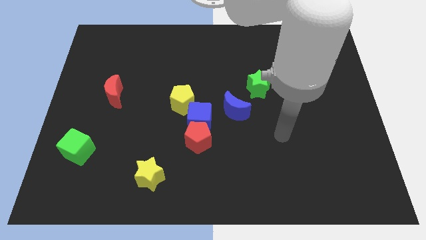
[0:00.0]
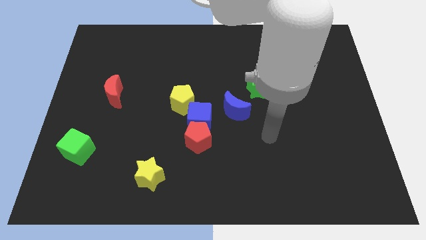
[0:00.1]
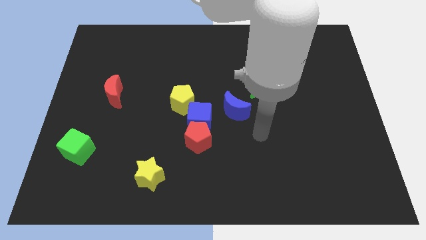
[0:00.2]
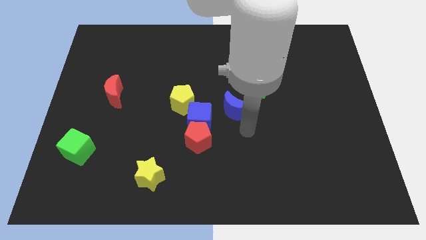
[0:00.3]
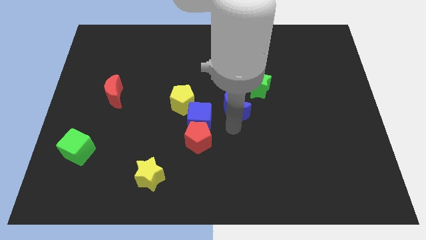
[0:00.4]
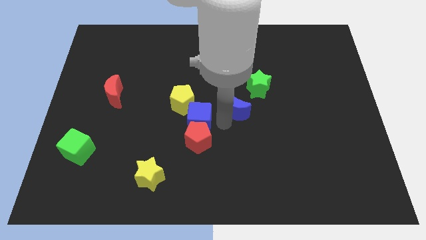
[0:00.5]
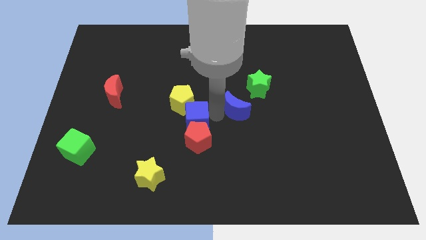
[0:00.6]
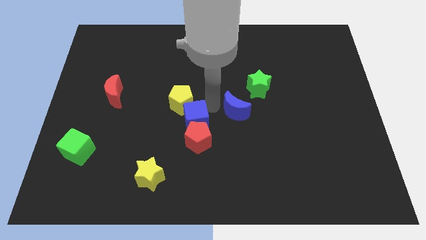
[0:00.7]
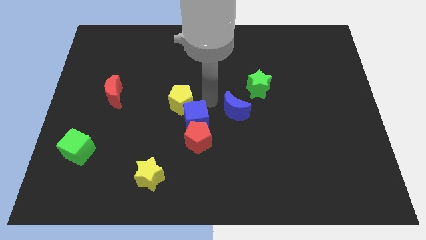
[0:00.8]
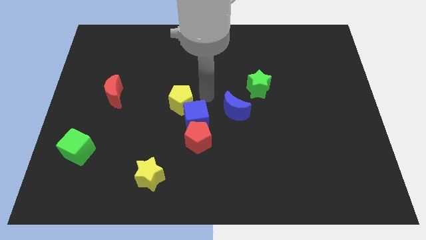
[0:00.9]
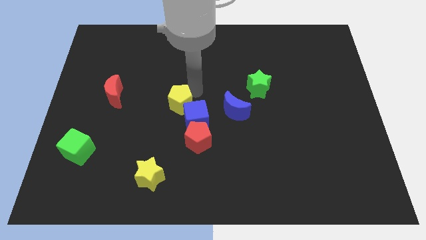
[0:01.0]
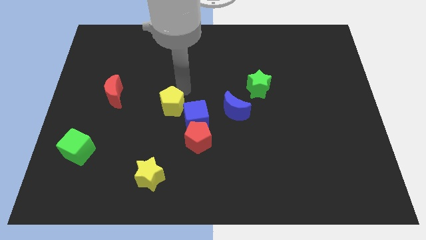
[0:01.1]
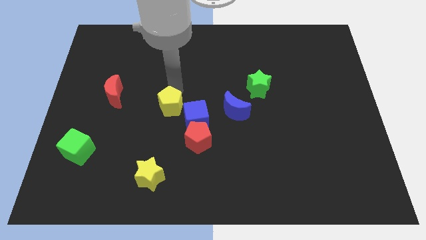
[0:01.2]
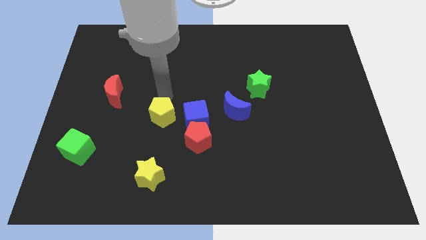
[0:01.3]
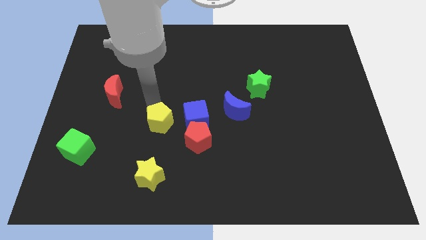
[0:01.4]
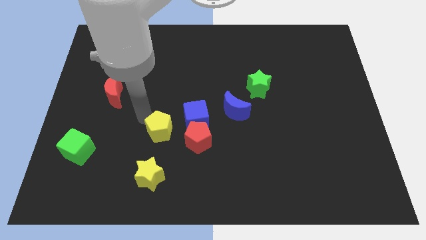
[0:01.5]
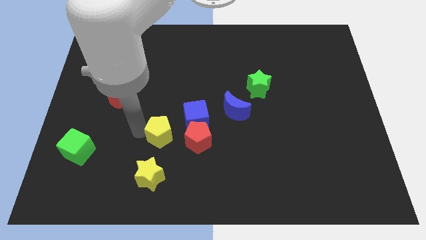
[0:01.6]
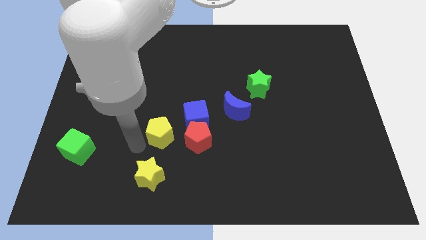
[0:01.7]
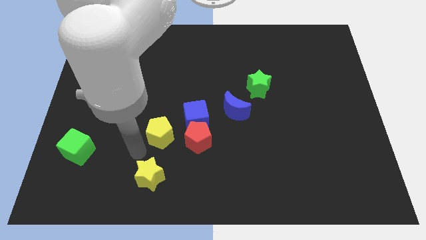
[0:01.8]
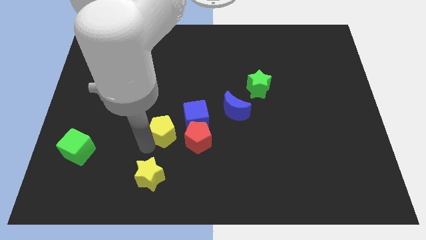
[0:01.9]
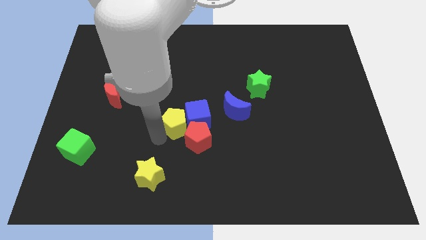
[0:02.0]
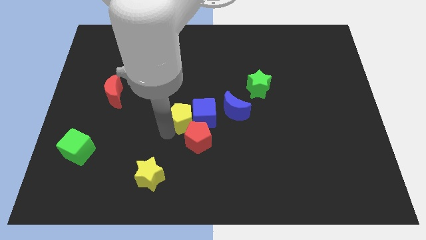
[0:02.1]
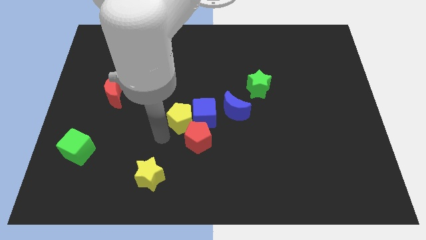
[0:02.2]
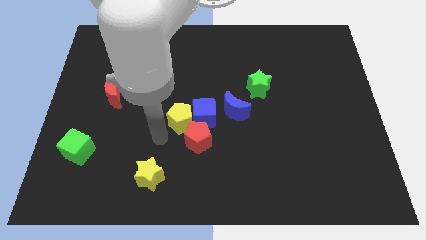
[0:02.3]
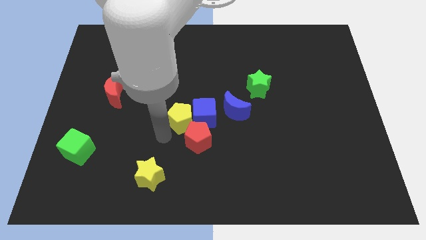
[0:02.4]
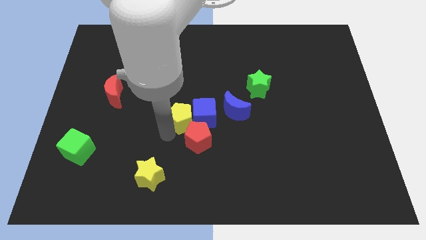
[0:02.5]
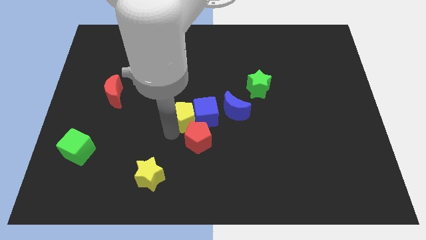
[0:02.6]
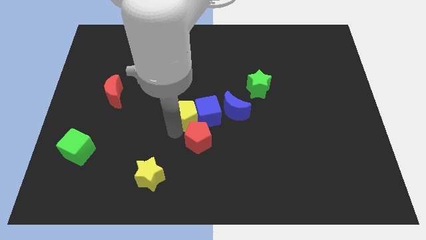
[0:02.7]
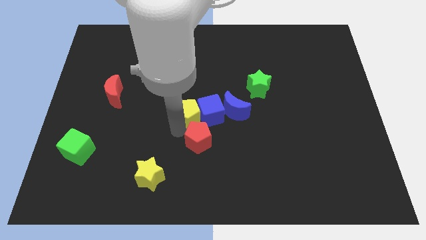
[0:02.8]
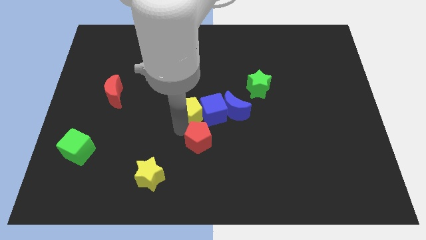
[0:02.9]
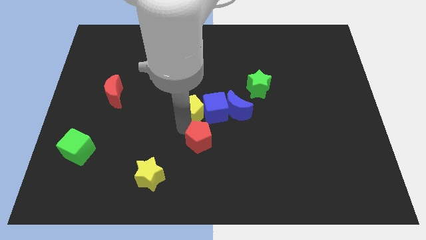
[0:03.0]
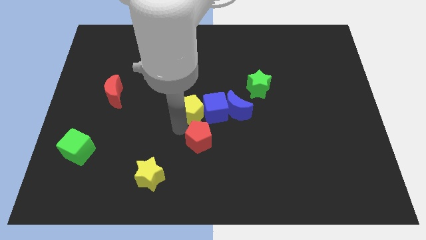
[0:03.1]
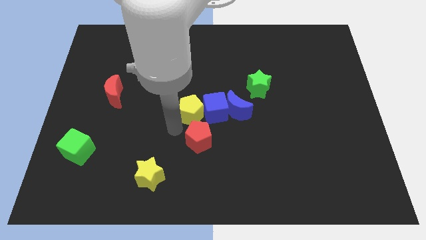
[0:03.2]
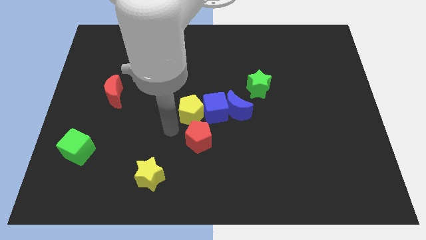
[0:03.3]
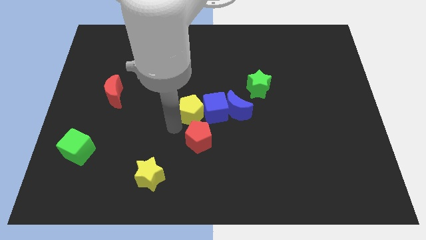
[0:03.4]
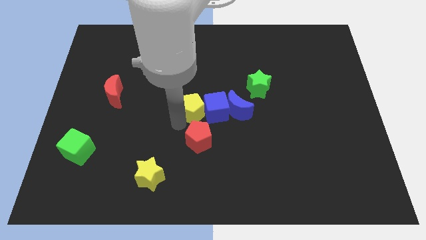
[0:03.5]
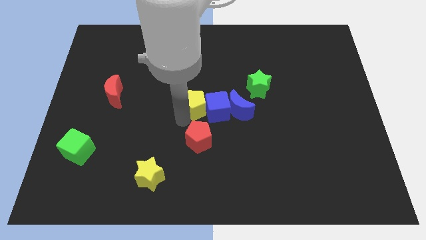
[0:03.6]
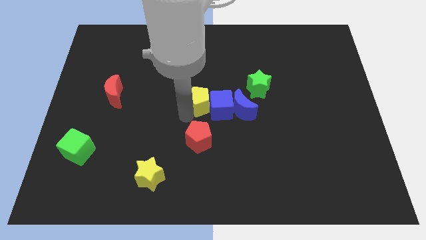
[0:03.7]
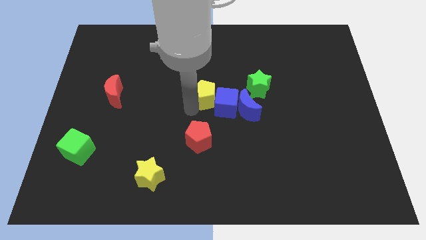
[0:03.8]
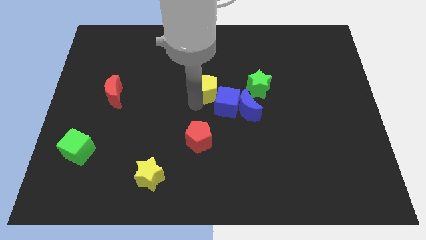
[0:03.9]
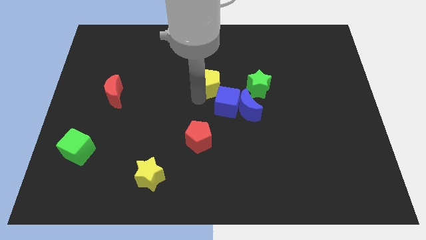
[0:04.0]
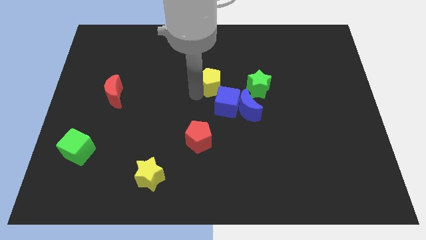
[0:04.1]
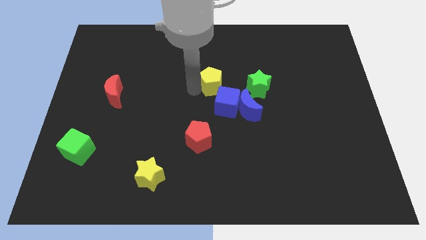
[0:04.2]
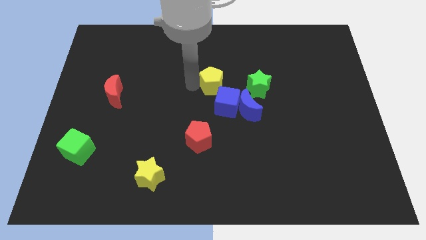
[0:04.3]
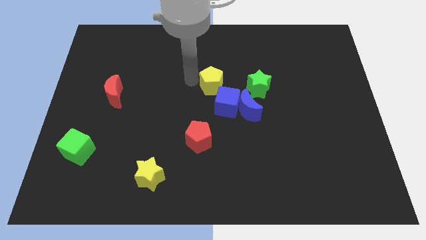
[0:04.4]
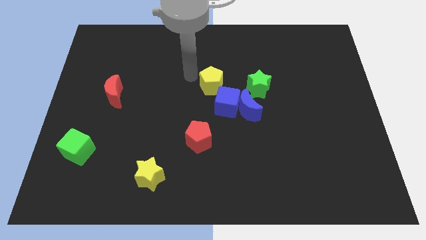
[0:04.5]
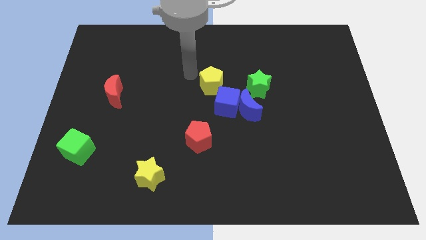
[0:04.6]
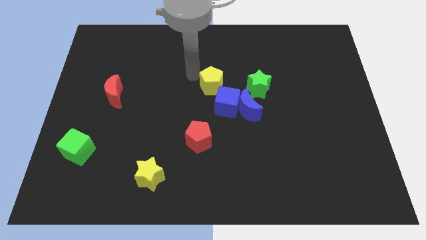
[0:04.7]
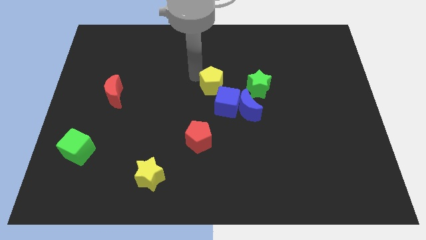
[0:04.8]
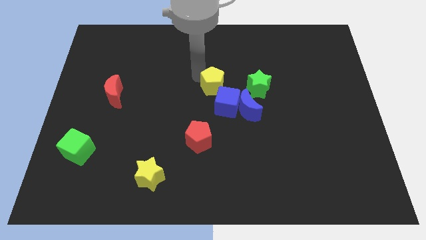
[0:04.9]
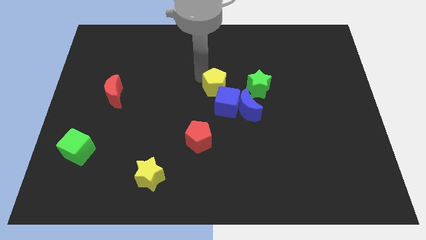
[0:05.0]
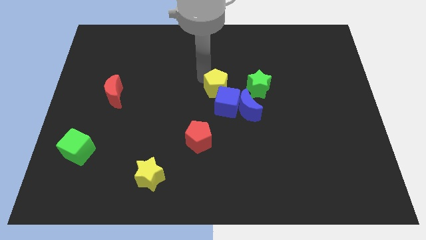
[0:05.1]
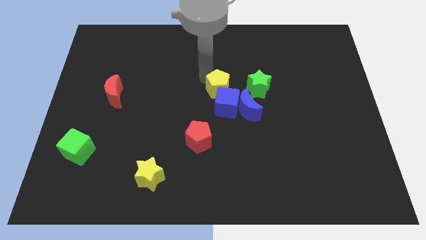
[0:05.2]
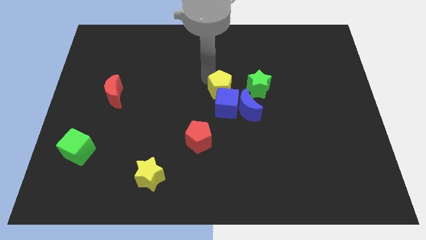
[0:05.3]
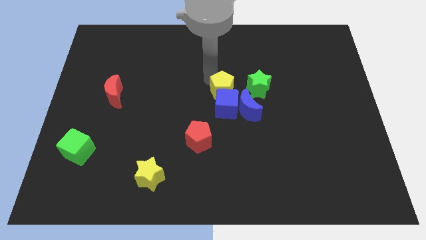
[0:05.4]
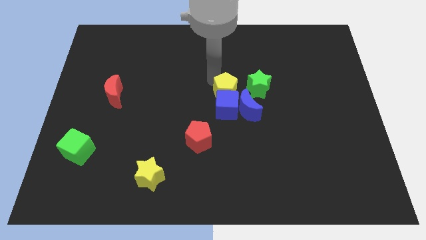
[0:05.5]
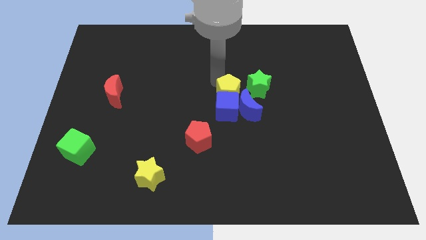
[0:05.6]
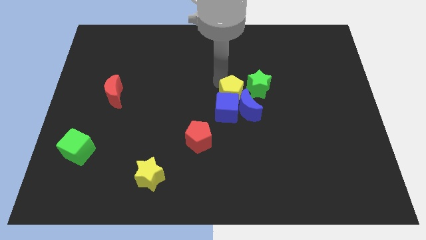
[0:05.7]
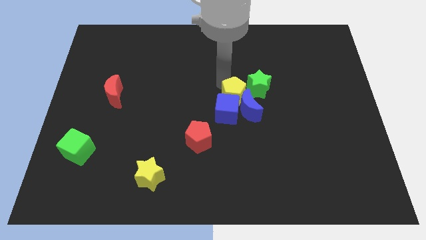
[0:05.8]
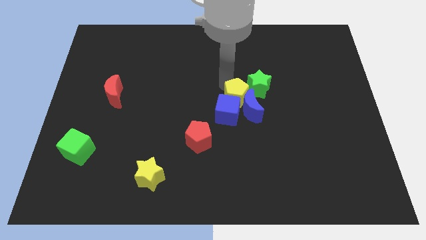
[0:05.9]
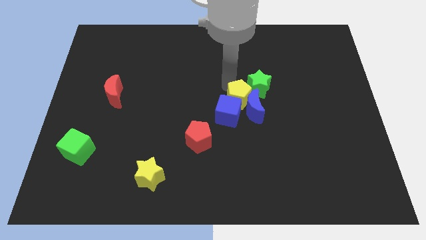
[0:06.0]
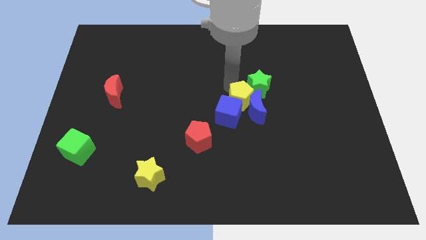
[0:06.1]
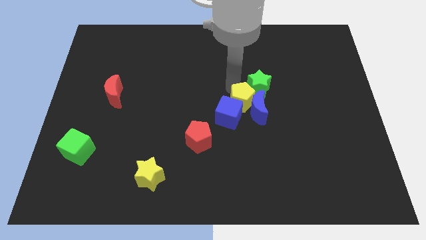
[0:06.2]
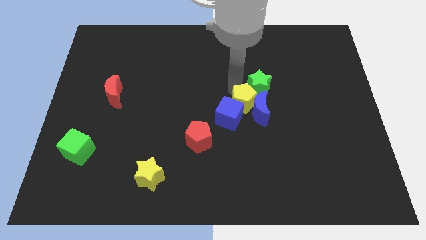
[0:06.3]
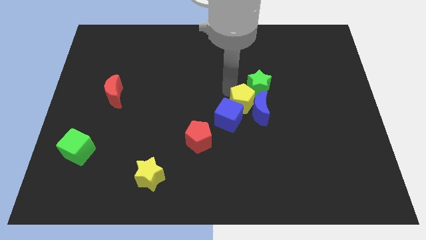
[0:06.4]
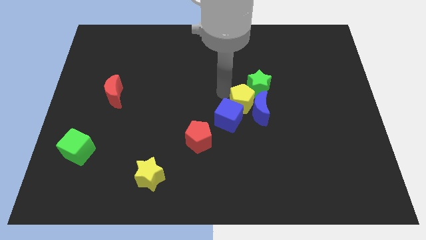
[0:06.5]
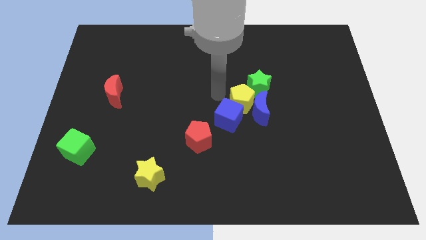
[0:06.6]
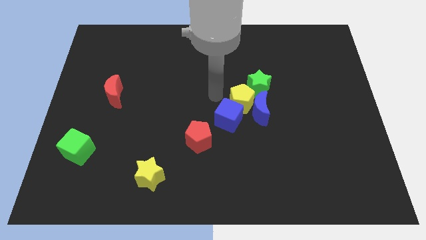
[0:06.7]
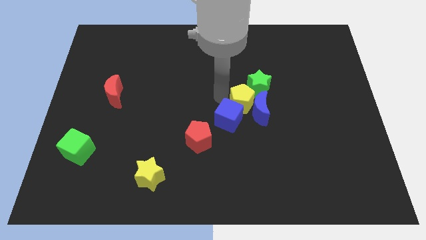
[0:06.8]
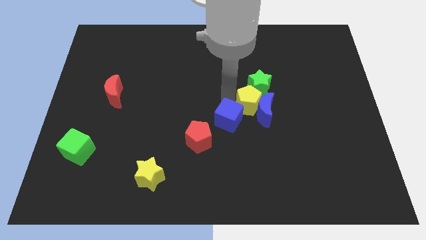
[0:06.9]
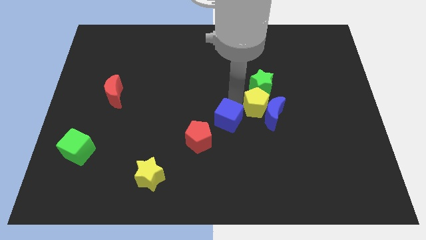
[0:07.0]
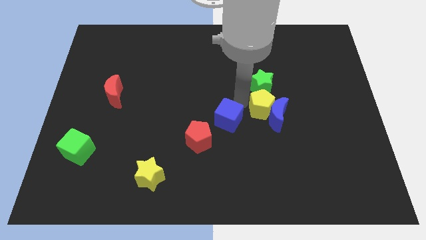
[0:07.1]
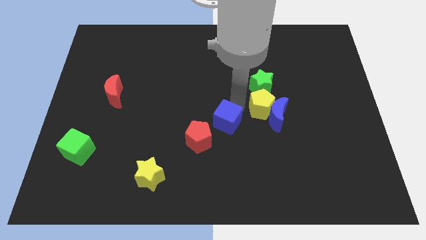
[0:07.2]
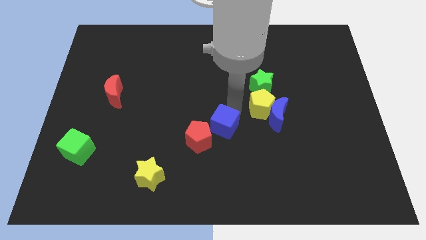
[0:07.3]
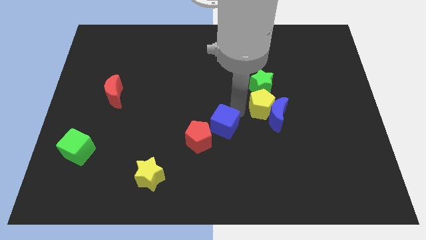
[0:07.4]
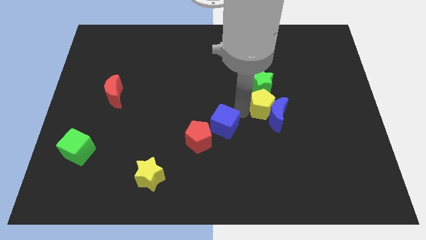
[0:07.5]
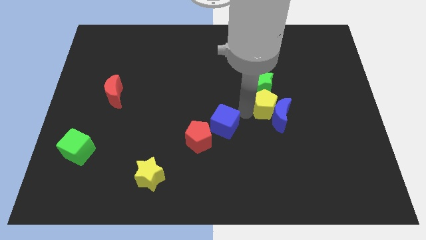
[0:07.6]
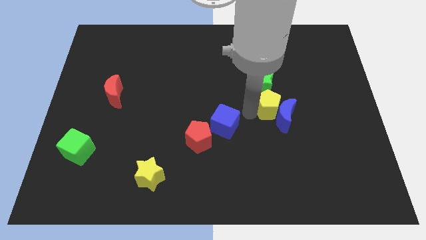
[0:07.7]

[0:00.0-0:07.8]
move the yellow pentagon to the right

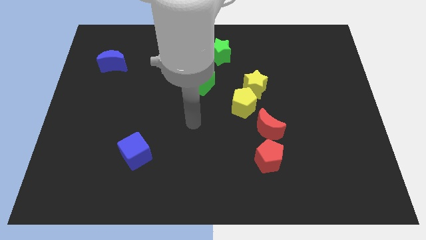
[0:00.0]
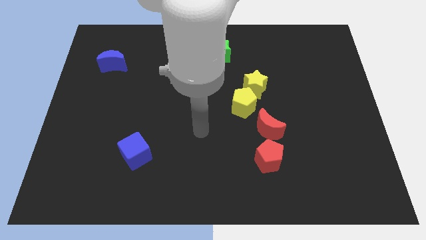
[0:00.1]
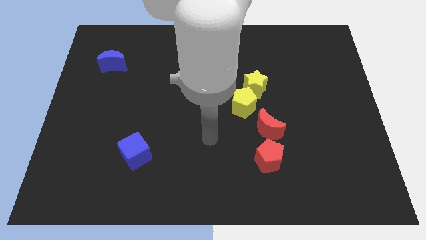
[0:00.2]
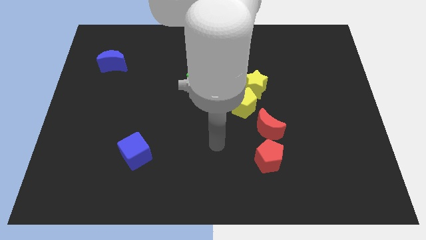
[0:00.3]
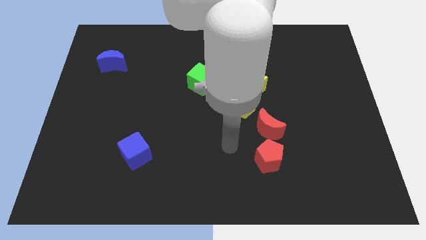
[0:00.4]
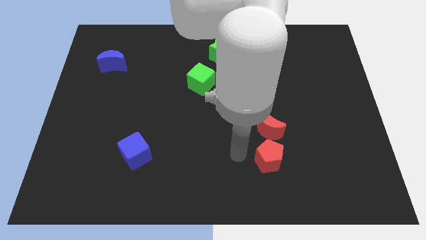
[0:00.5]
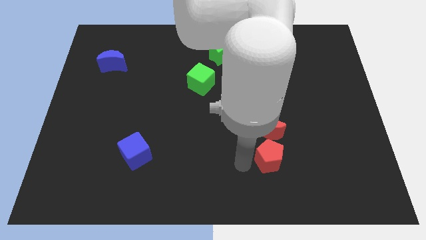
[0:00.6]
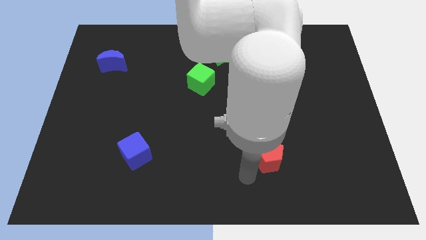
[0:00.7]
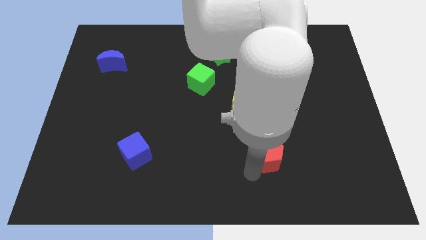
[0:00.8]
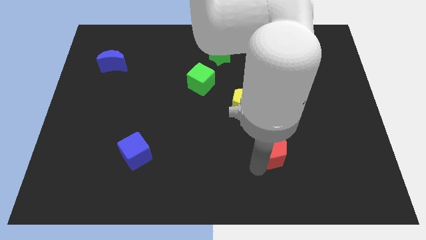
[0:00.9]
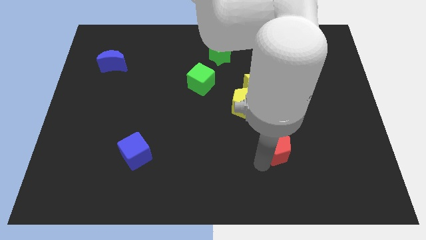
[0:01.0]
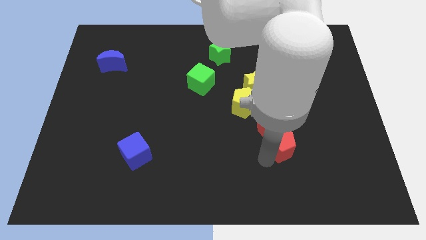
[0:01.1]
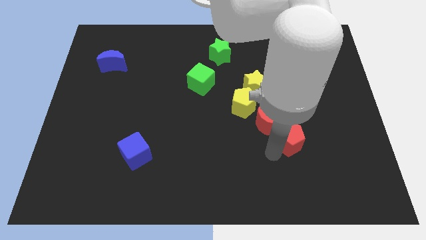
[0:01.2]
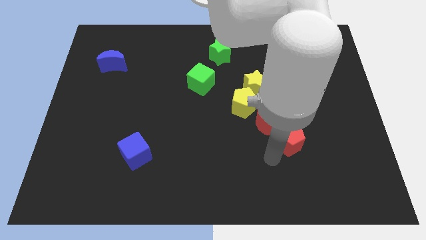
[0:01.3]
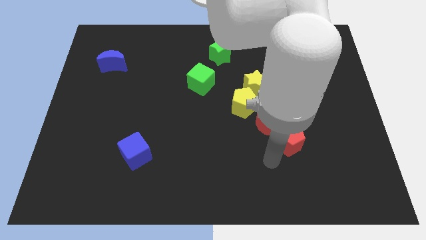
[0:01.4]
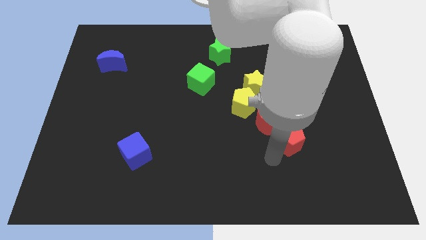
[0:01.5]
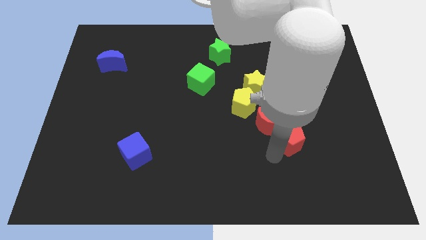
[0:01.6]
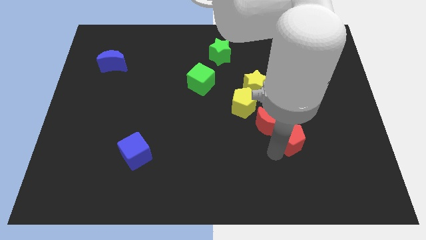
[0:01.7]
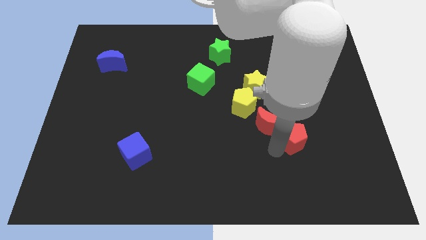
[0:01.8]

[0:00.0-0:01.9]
move the red pentagon diagonally up and to the right a little bit
